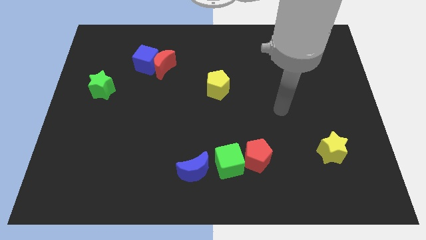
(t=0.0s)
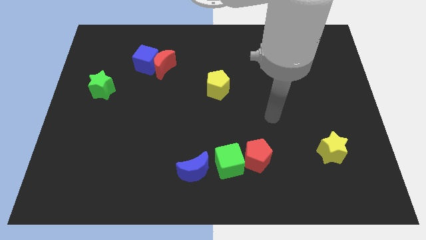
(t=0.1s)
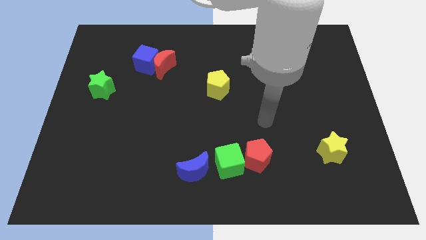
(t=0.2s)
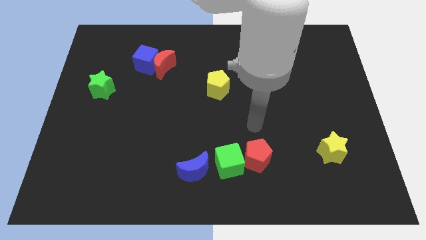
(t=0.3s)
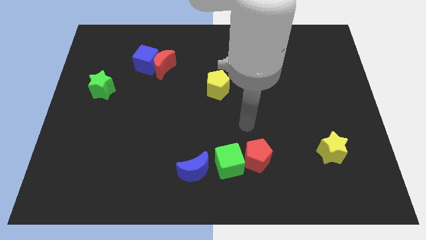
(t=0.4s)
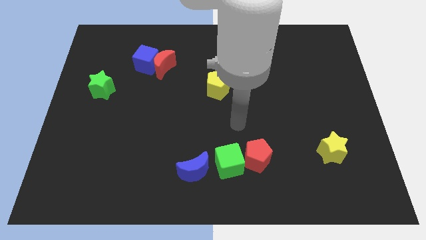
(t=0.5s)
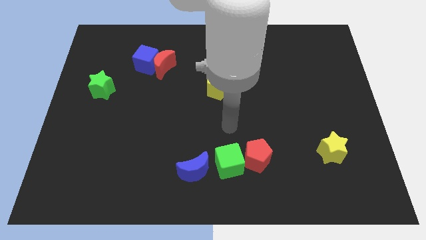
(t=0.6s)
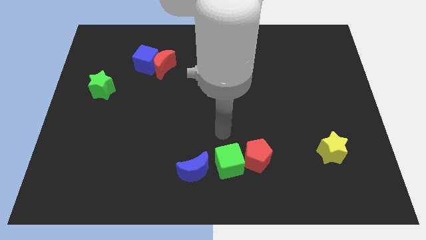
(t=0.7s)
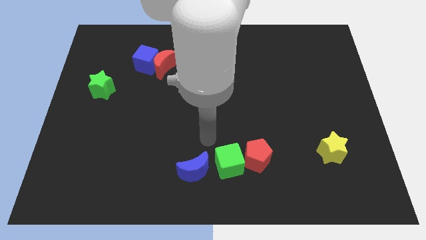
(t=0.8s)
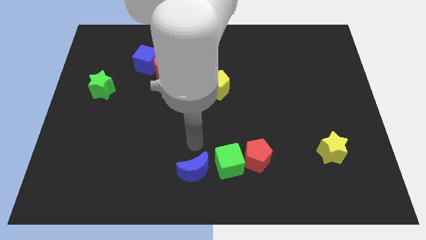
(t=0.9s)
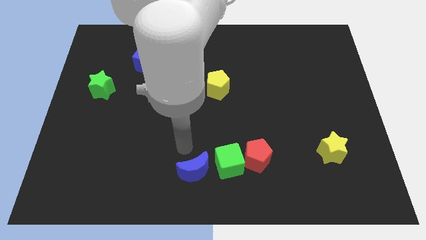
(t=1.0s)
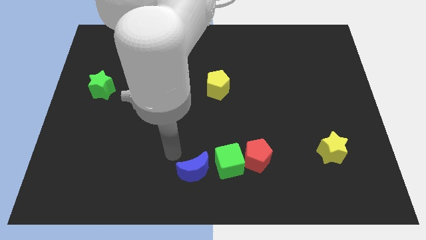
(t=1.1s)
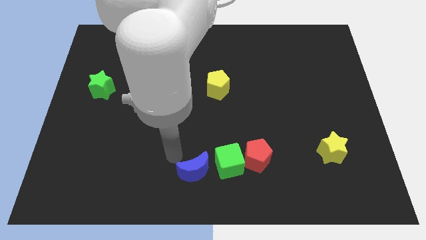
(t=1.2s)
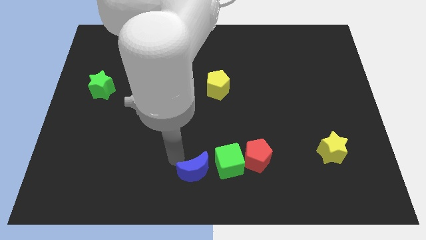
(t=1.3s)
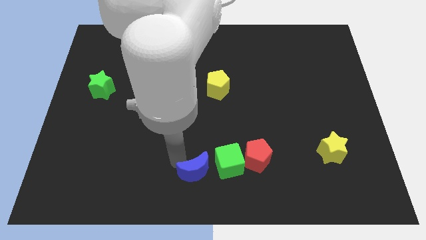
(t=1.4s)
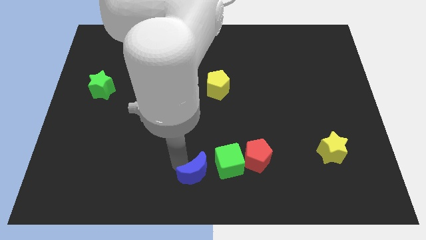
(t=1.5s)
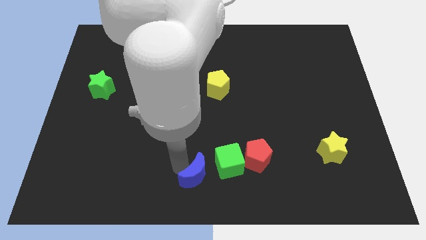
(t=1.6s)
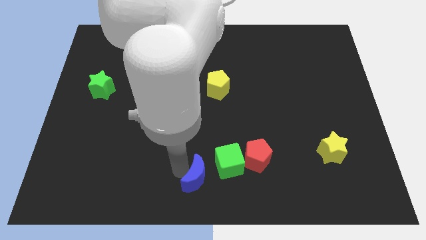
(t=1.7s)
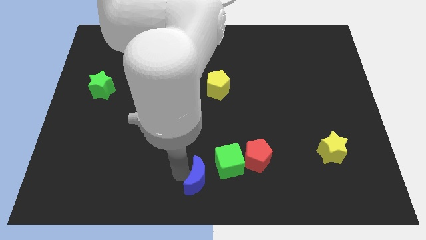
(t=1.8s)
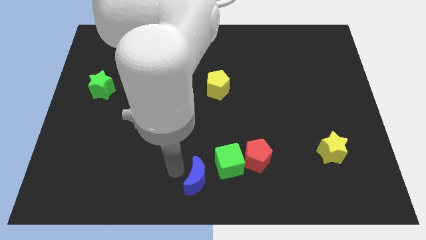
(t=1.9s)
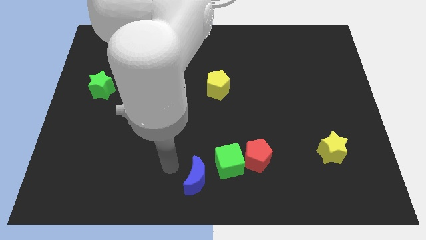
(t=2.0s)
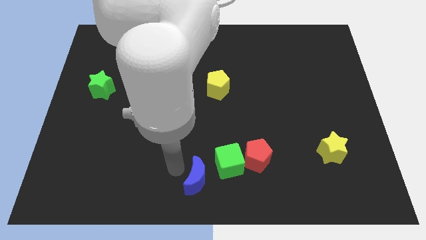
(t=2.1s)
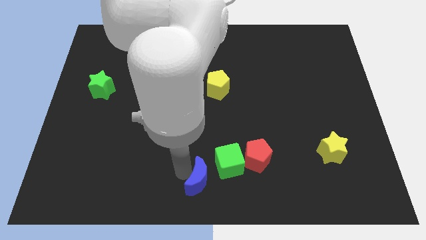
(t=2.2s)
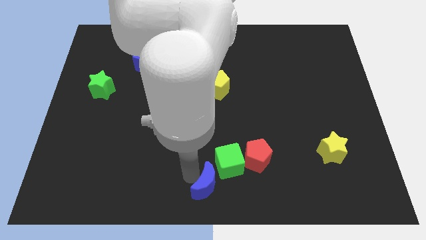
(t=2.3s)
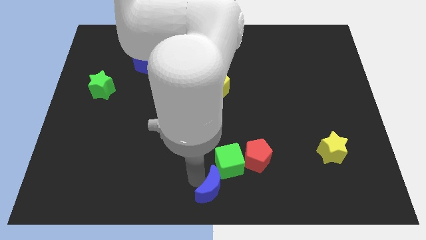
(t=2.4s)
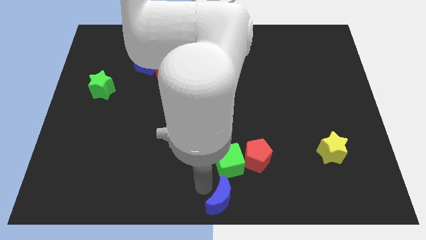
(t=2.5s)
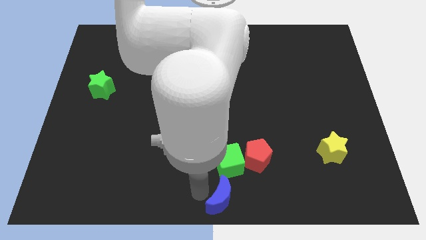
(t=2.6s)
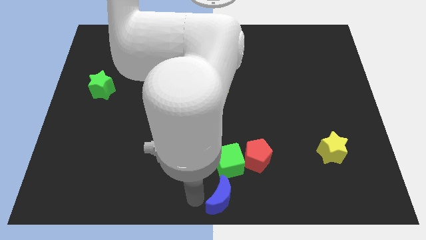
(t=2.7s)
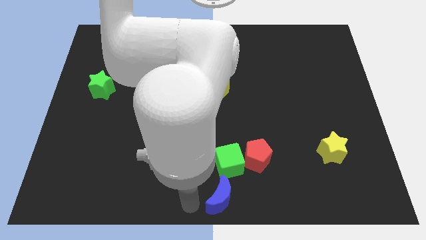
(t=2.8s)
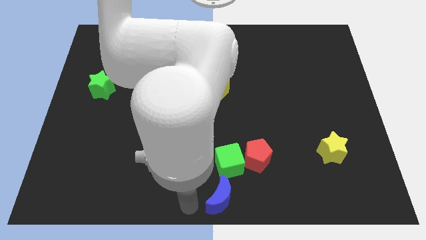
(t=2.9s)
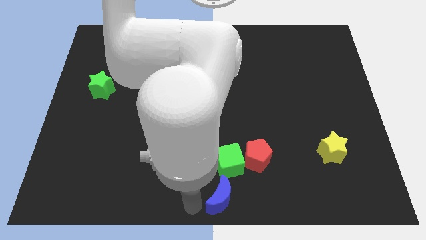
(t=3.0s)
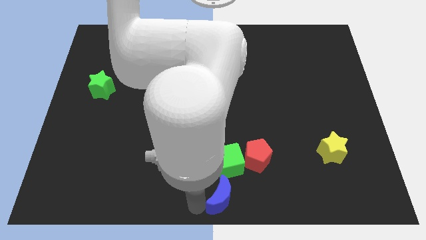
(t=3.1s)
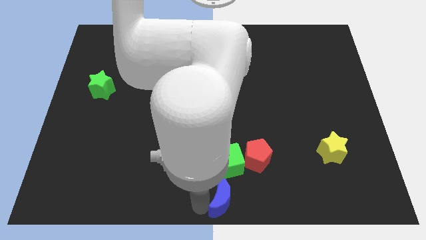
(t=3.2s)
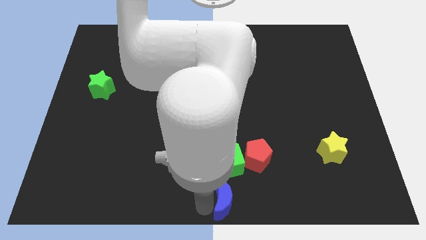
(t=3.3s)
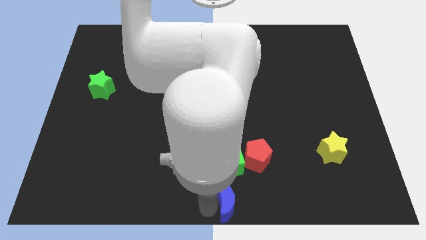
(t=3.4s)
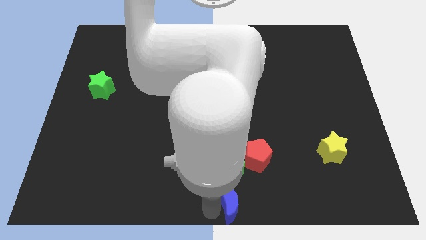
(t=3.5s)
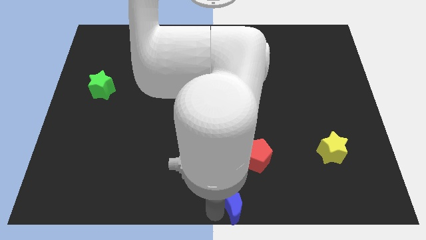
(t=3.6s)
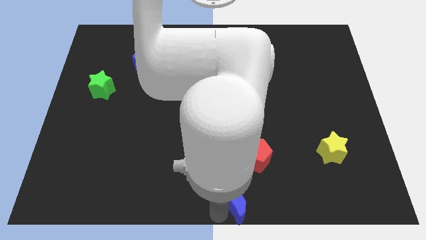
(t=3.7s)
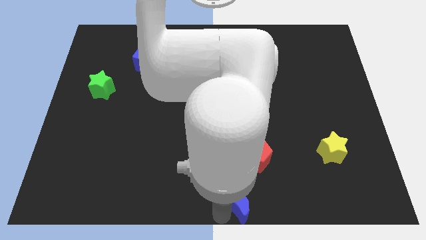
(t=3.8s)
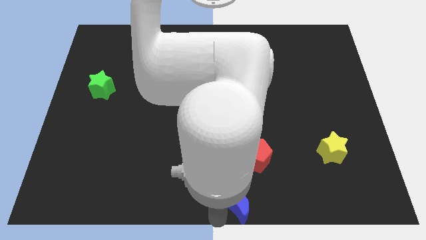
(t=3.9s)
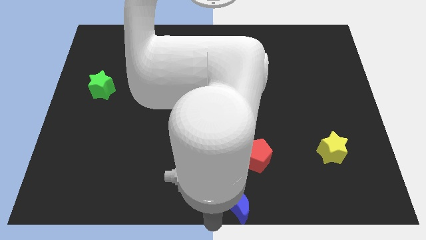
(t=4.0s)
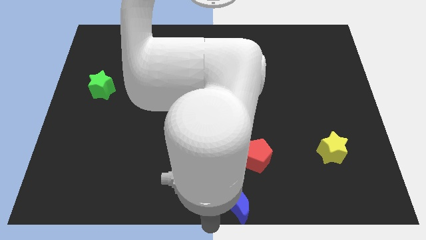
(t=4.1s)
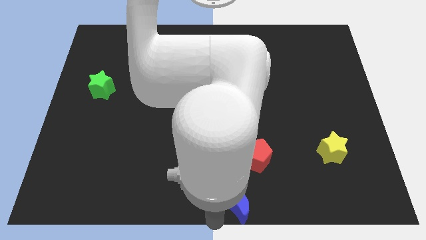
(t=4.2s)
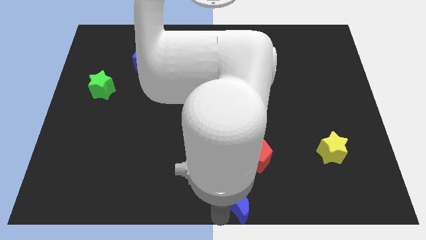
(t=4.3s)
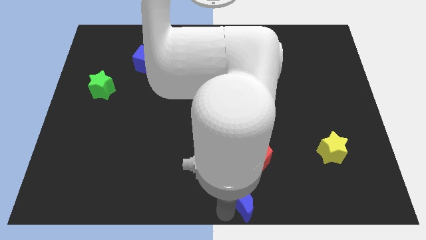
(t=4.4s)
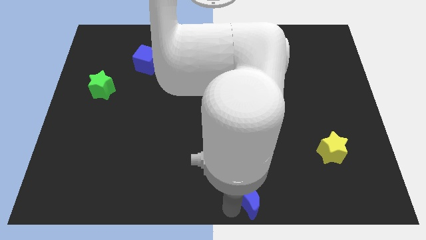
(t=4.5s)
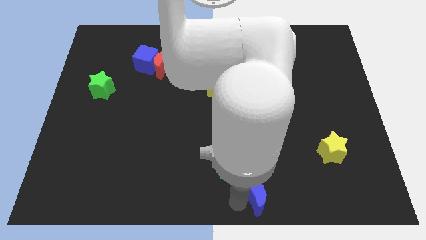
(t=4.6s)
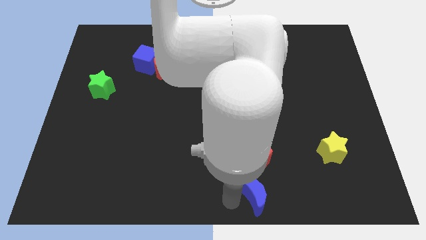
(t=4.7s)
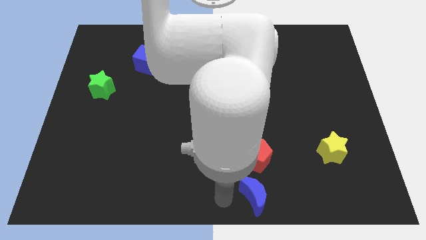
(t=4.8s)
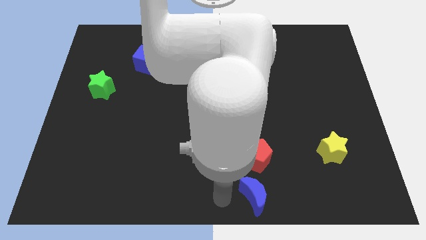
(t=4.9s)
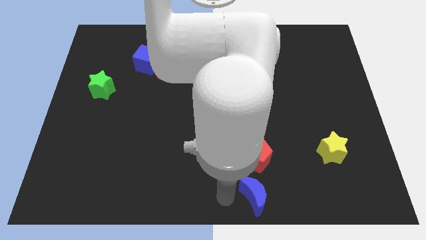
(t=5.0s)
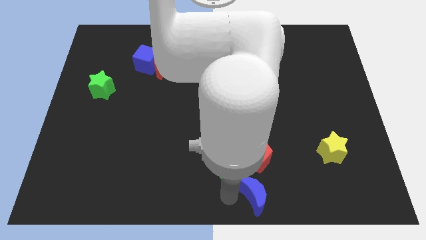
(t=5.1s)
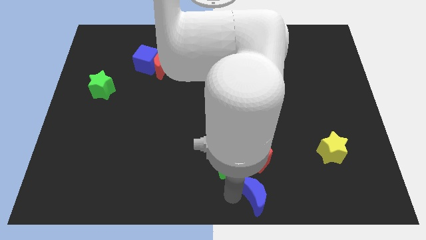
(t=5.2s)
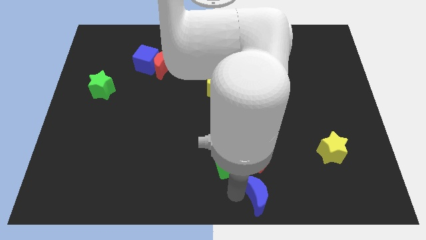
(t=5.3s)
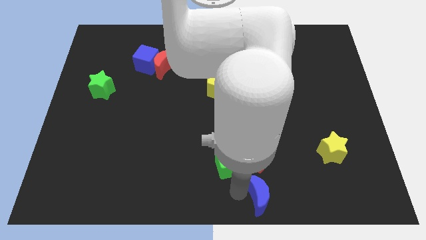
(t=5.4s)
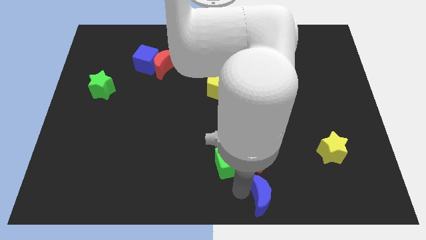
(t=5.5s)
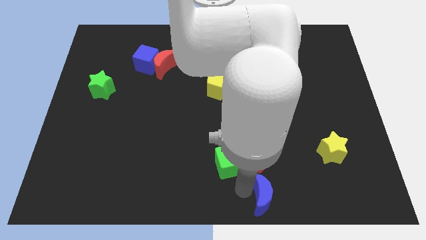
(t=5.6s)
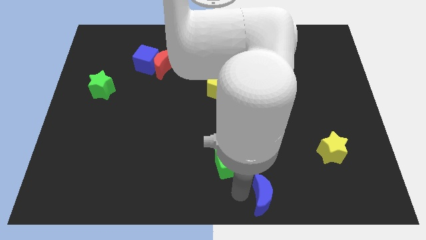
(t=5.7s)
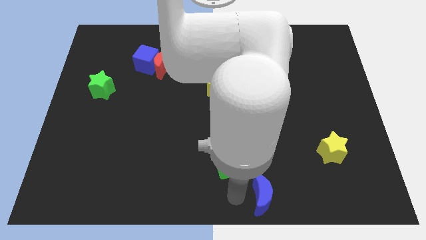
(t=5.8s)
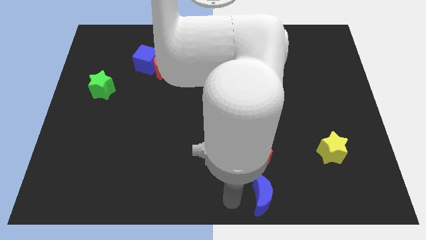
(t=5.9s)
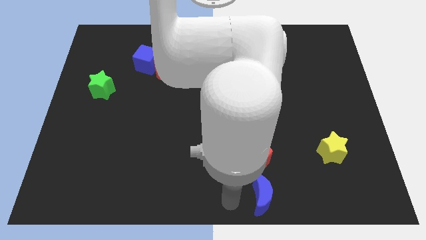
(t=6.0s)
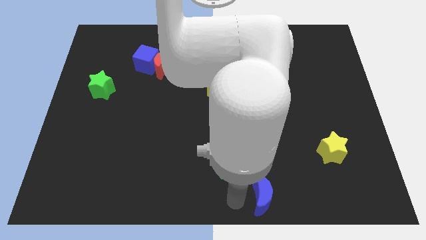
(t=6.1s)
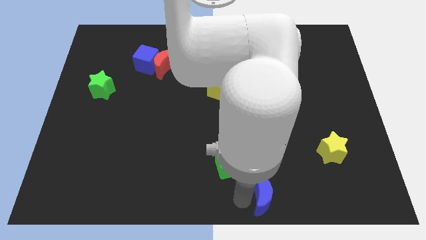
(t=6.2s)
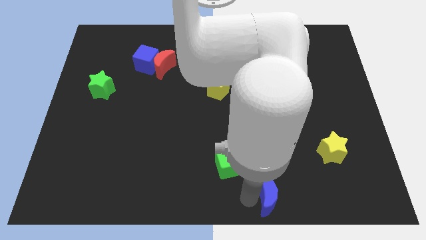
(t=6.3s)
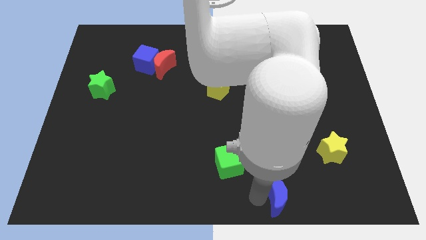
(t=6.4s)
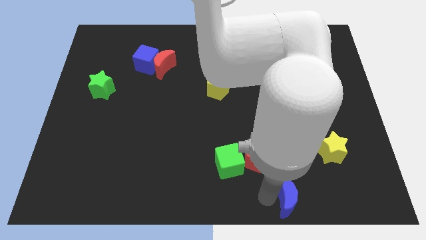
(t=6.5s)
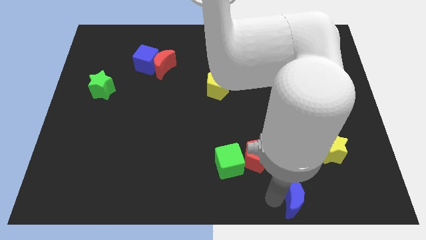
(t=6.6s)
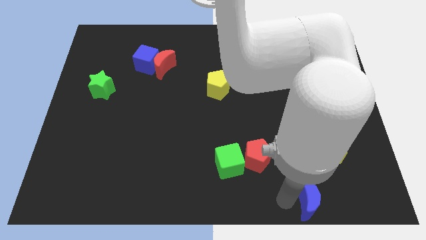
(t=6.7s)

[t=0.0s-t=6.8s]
move the blue moon to the right

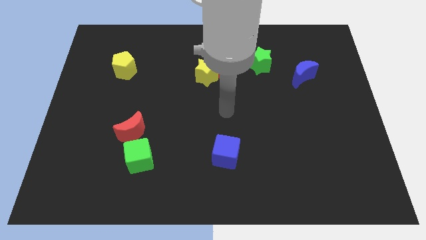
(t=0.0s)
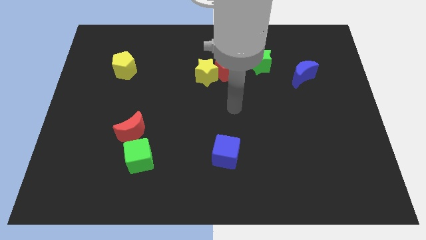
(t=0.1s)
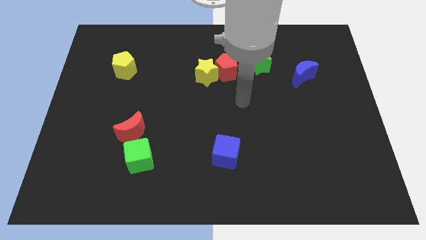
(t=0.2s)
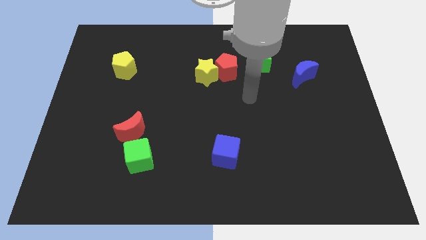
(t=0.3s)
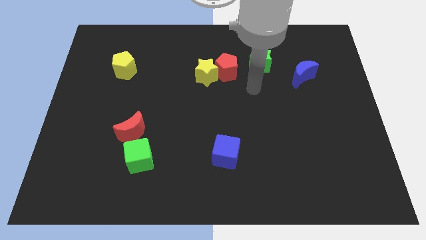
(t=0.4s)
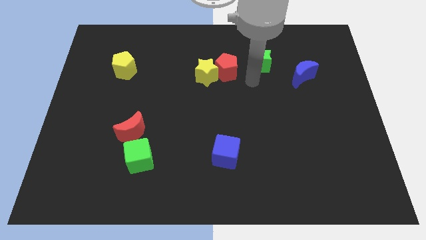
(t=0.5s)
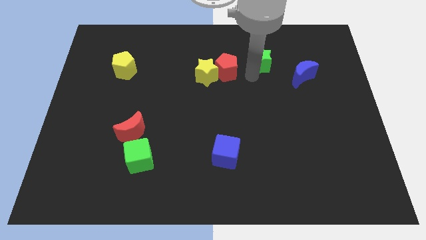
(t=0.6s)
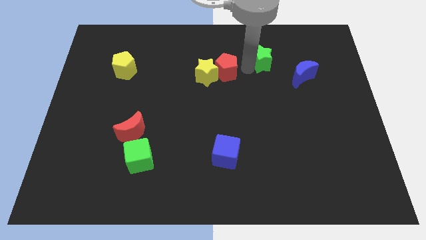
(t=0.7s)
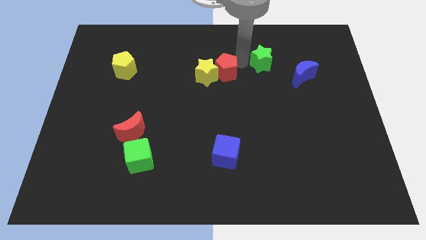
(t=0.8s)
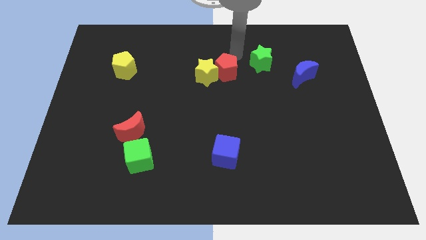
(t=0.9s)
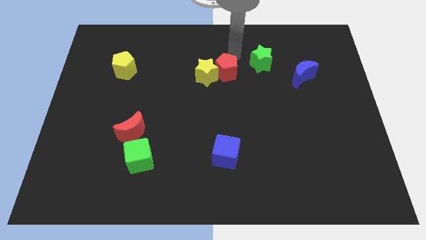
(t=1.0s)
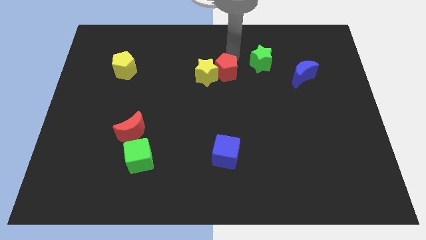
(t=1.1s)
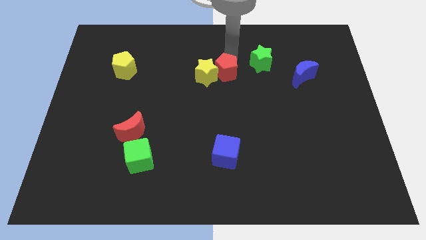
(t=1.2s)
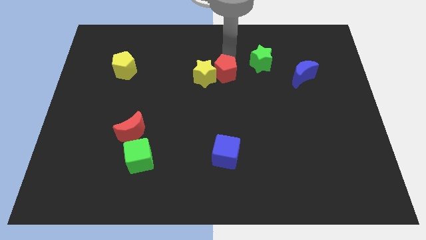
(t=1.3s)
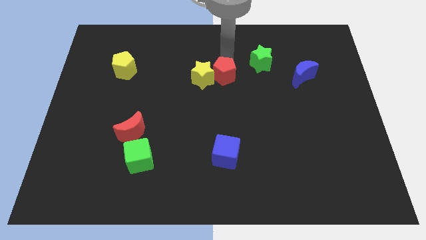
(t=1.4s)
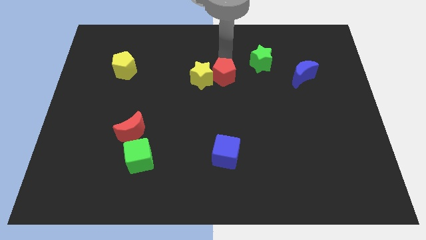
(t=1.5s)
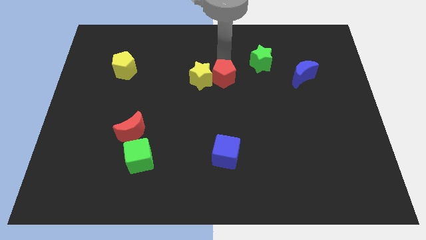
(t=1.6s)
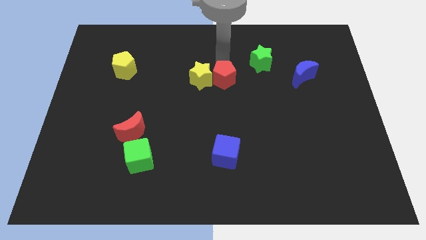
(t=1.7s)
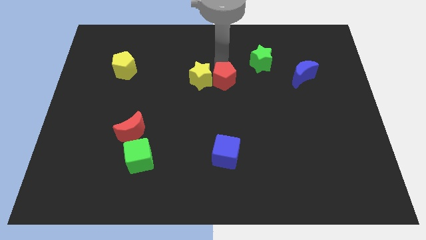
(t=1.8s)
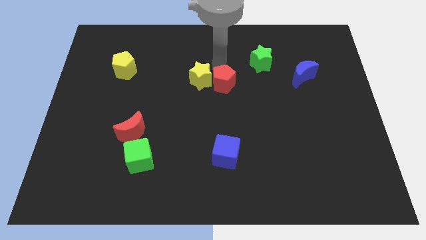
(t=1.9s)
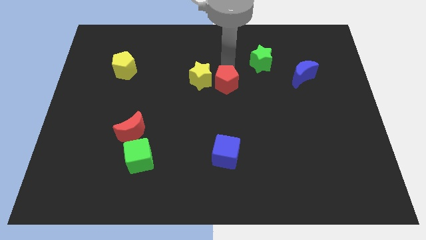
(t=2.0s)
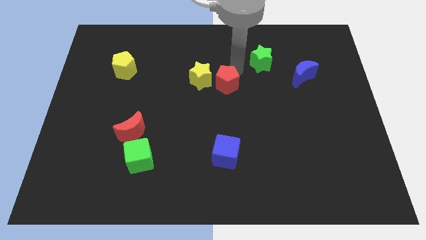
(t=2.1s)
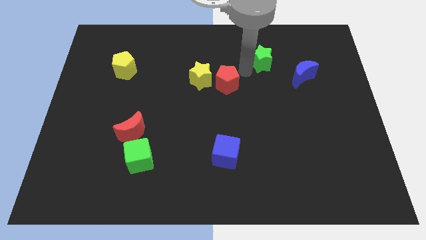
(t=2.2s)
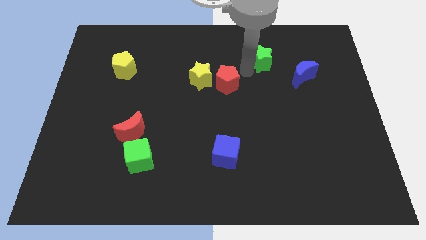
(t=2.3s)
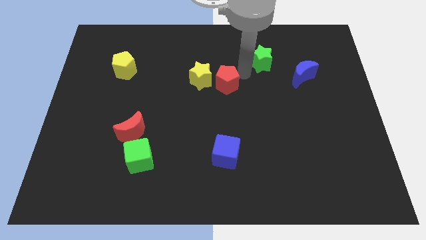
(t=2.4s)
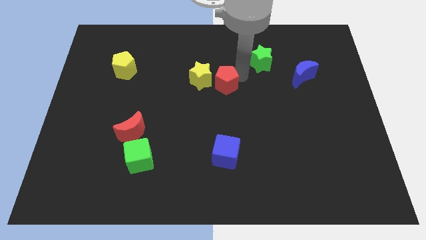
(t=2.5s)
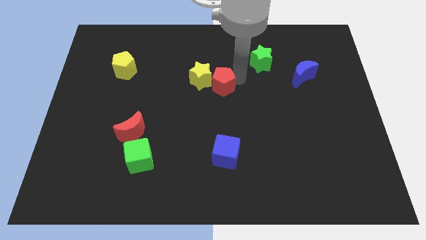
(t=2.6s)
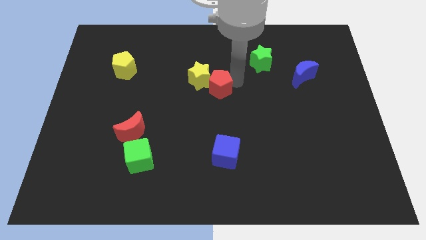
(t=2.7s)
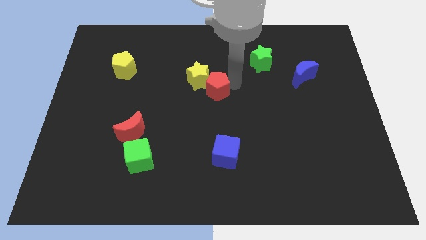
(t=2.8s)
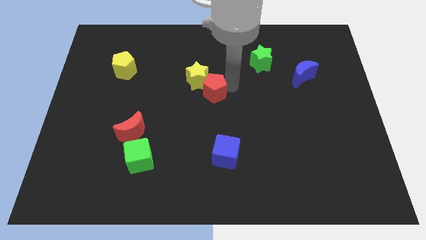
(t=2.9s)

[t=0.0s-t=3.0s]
slide the red pentagon somewhat down and to the left diagonally
